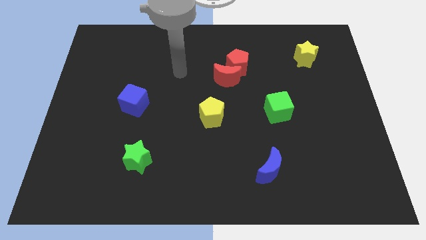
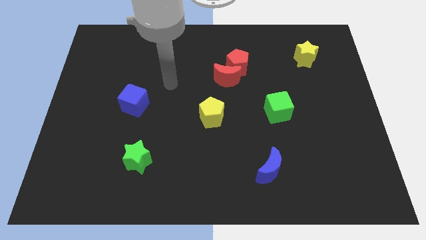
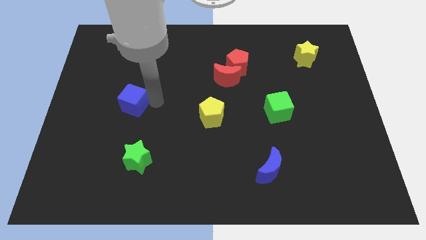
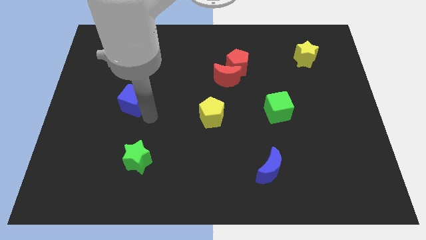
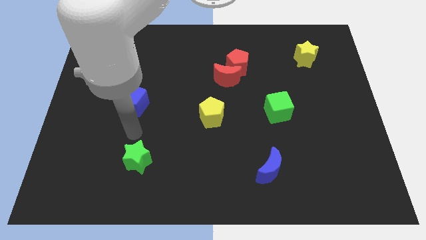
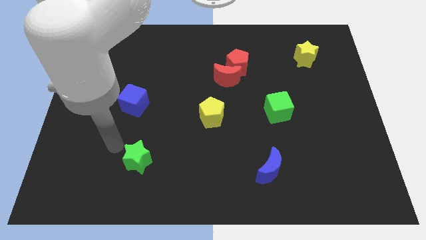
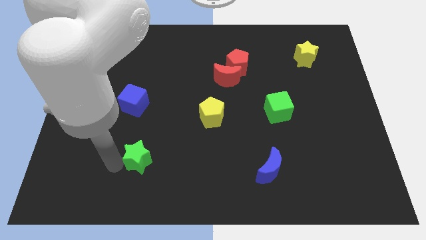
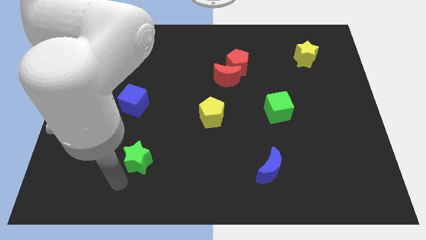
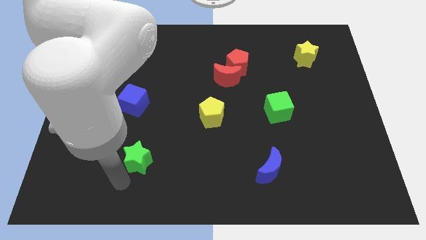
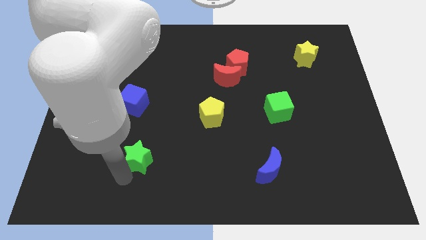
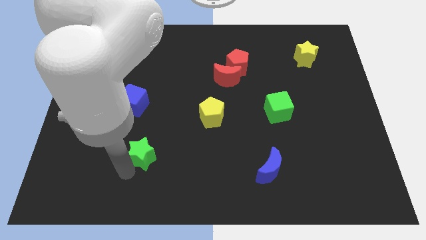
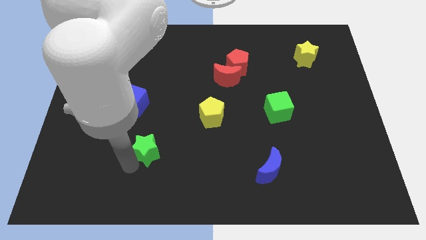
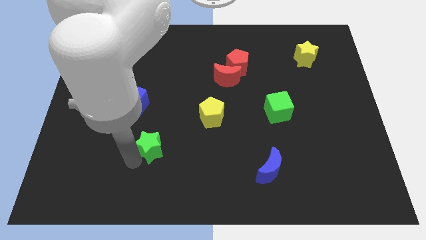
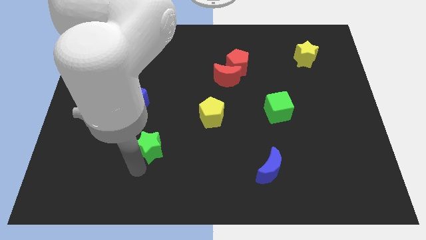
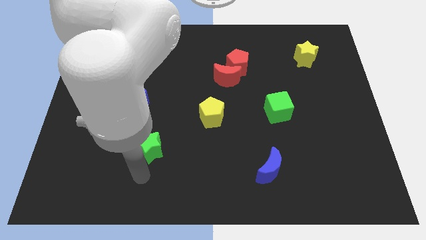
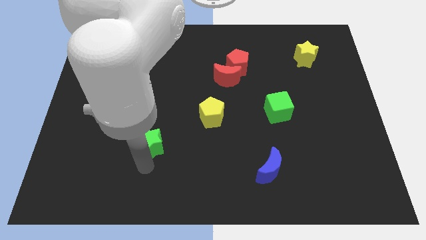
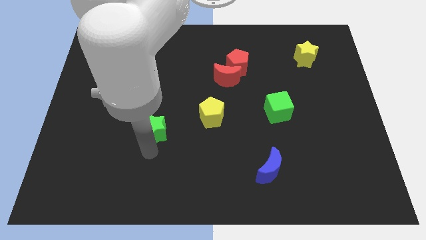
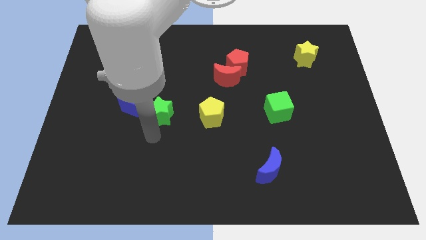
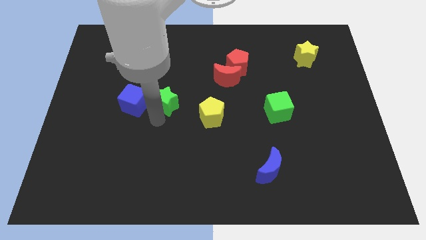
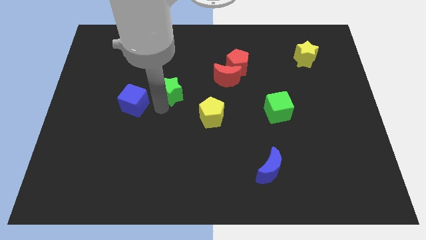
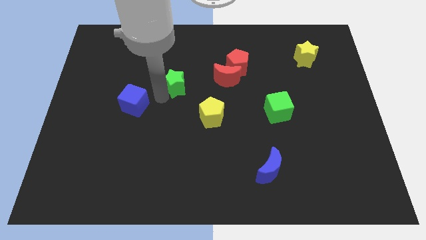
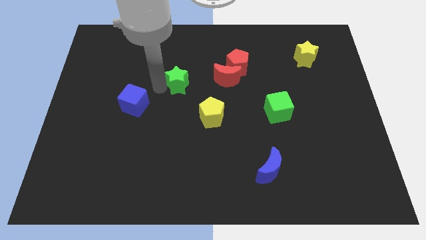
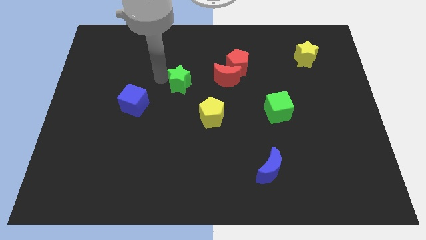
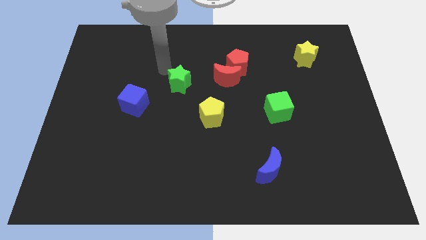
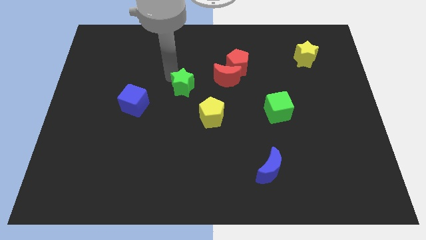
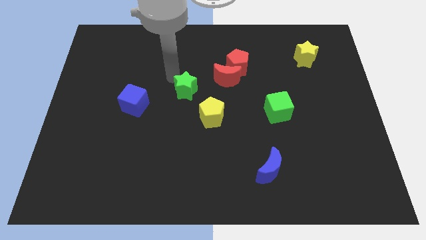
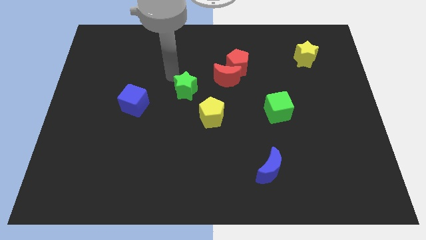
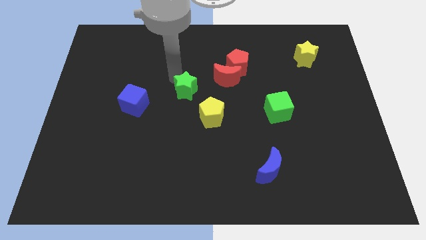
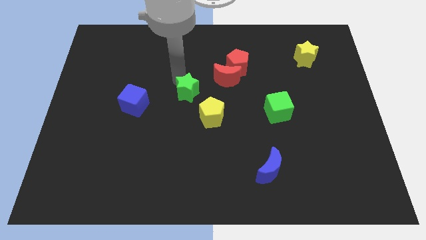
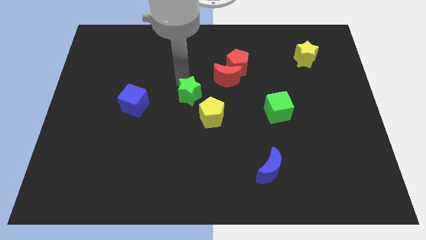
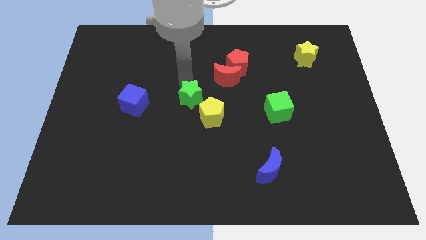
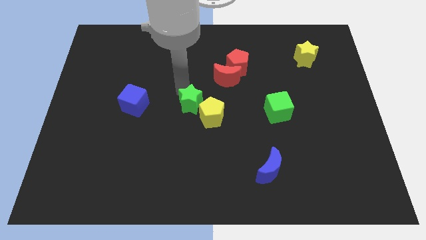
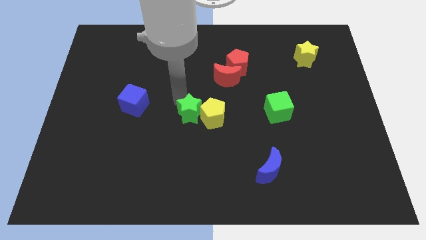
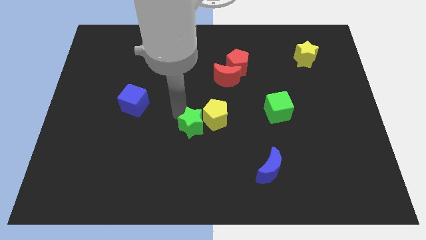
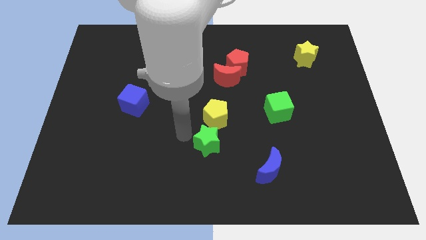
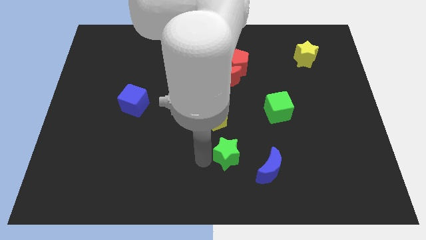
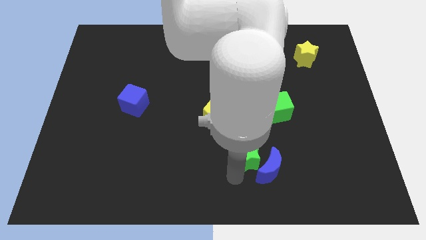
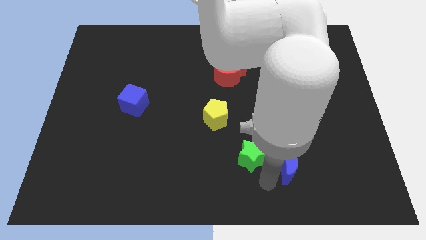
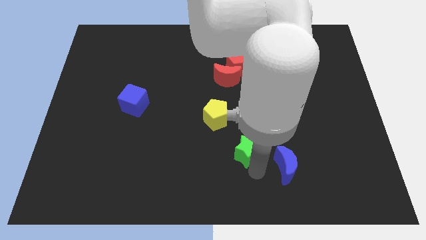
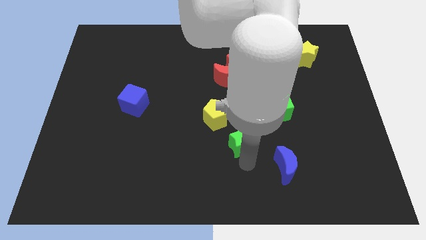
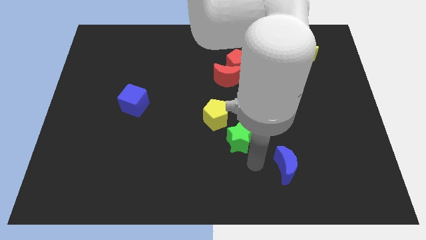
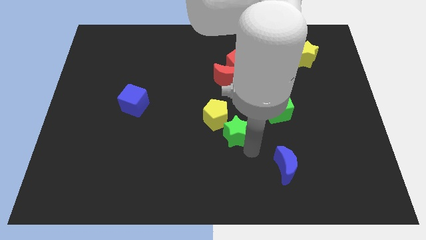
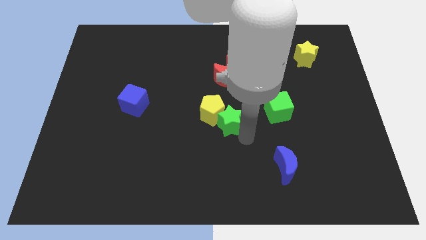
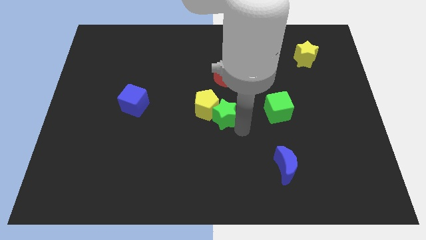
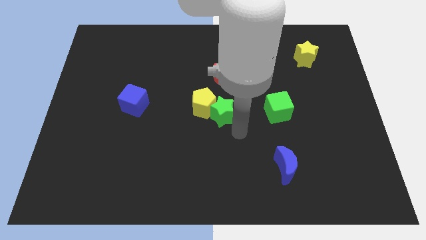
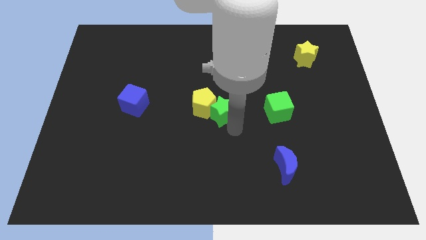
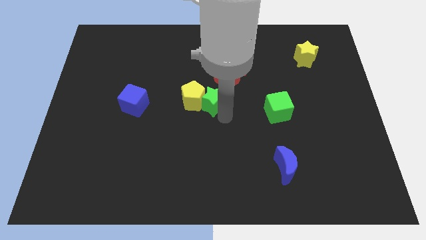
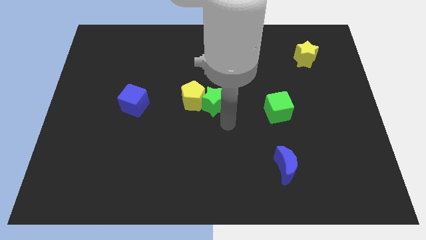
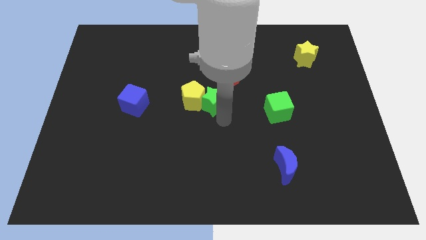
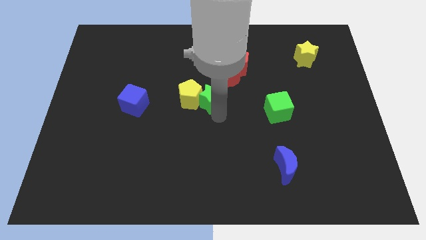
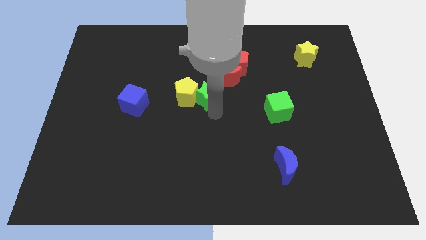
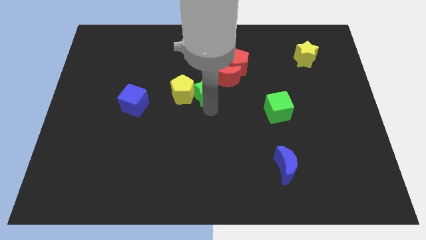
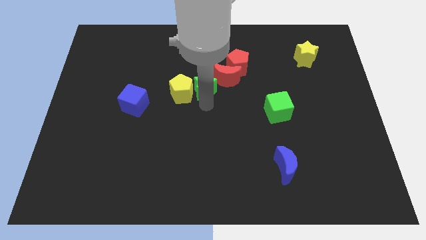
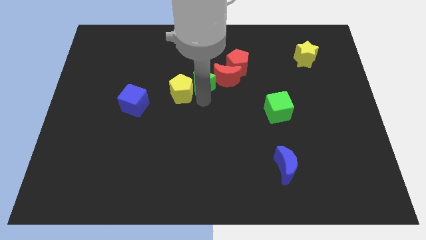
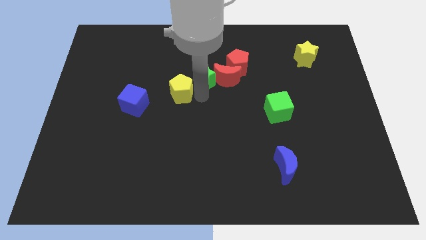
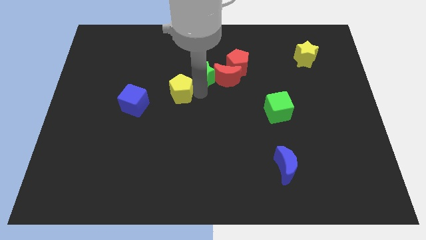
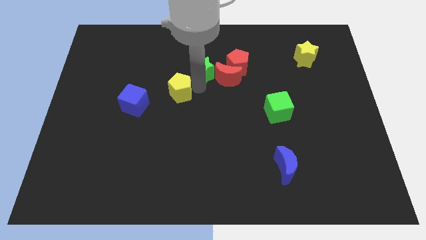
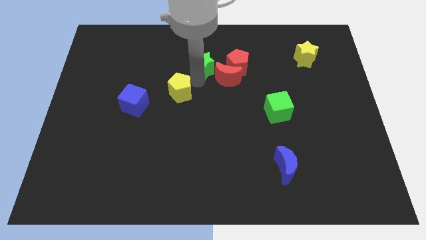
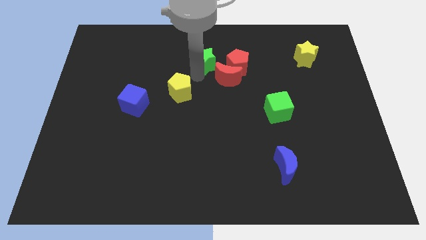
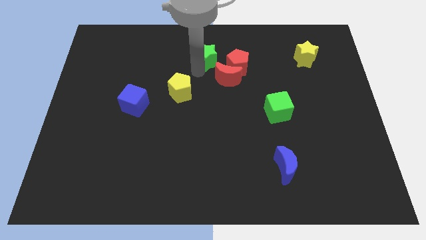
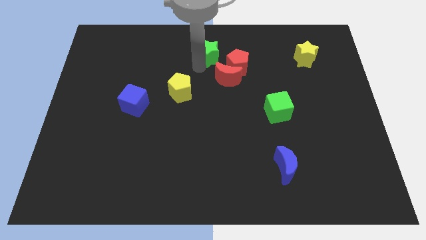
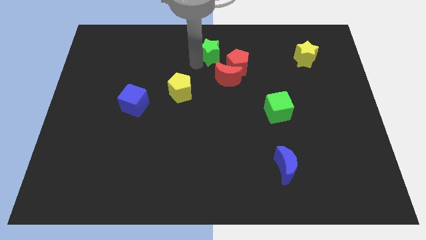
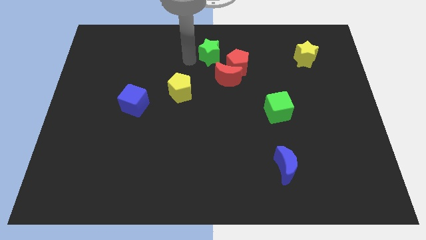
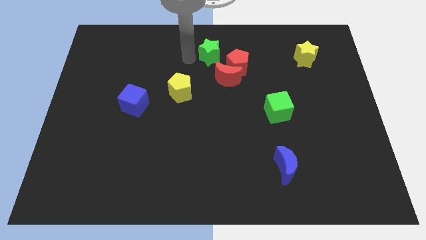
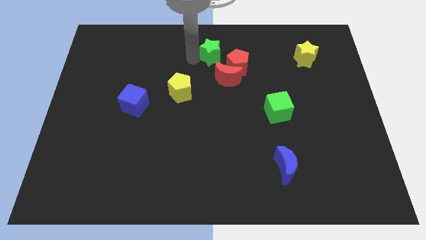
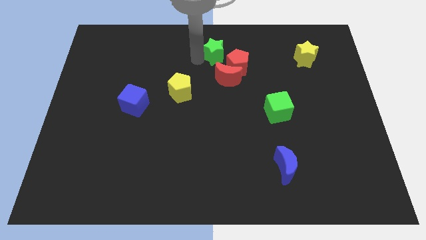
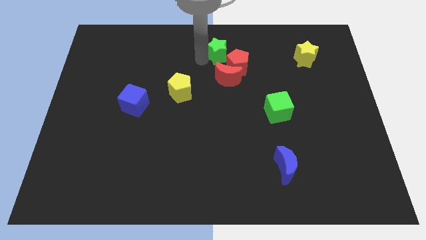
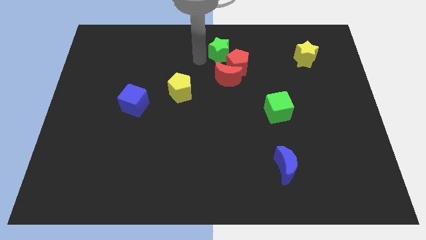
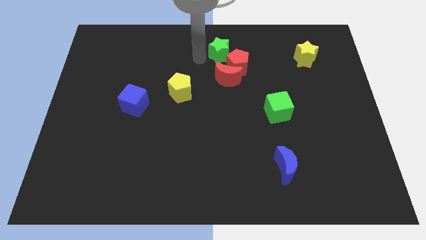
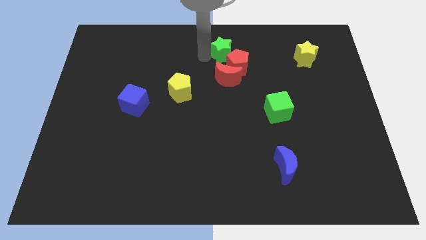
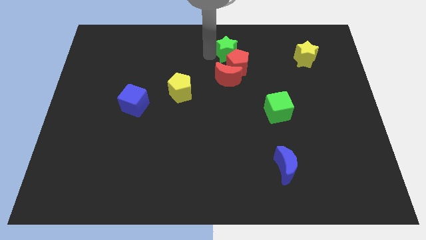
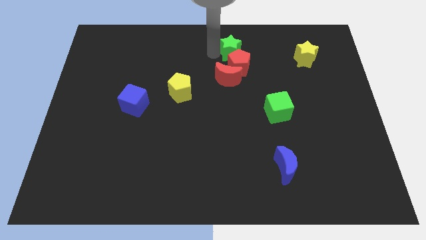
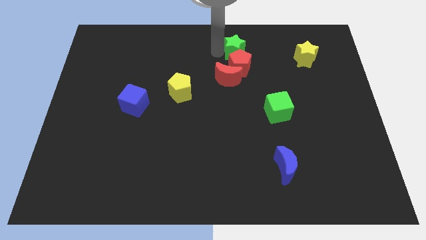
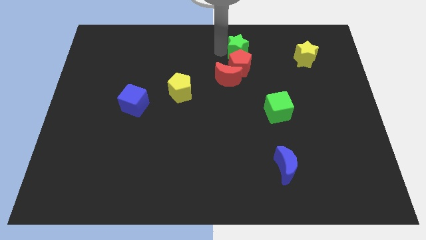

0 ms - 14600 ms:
slide the green star diagonally up and to the right of the red moon
